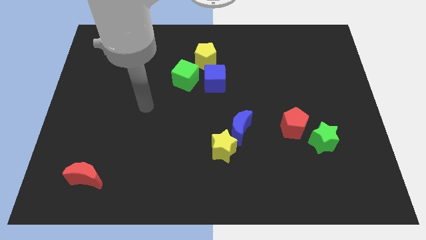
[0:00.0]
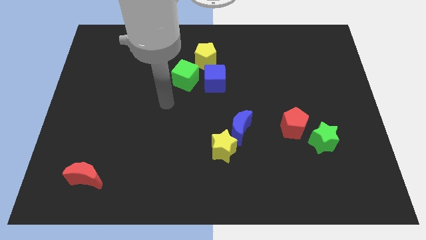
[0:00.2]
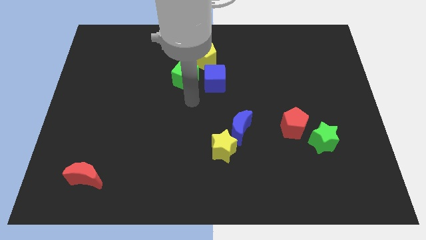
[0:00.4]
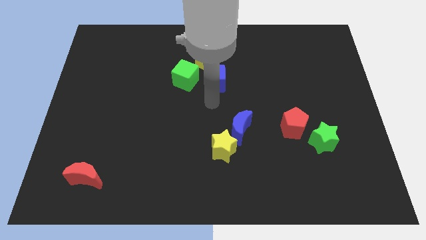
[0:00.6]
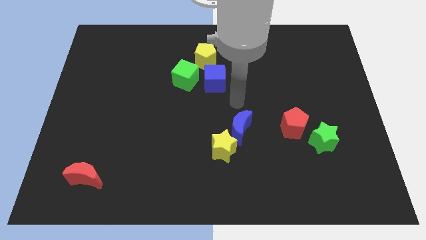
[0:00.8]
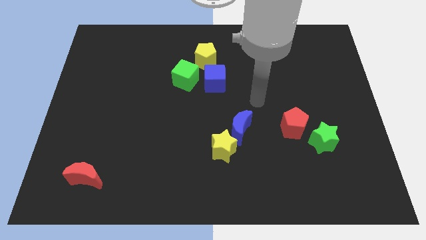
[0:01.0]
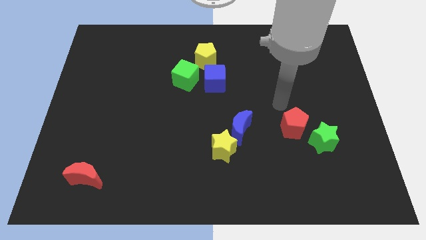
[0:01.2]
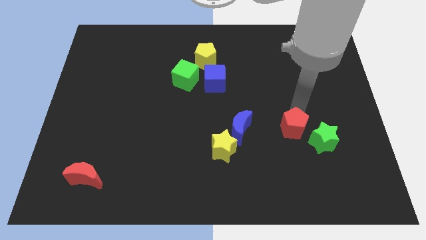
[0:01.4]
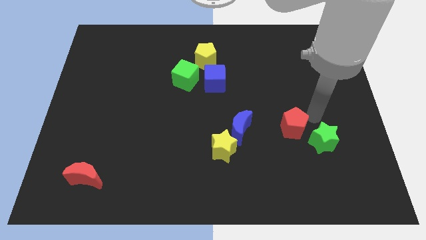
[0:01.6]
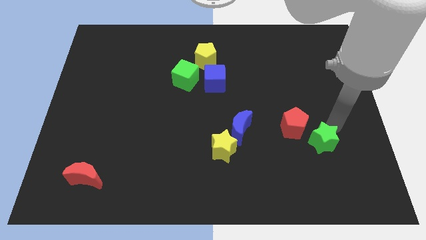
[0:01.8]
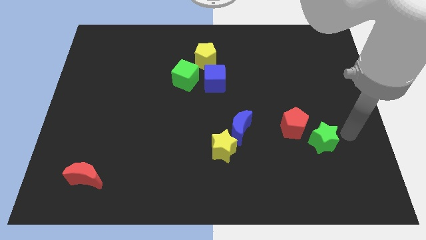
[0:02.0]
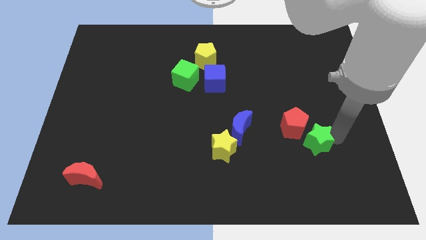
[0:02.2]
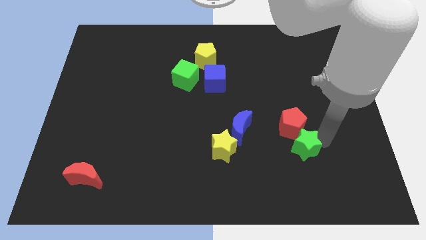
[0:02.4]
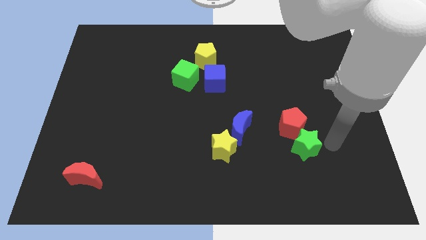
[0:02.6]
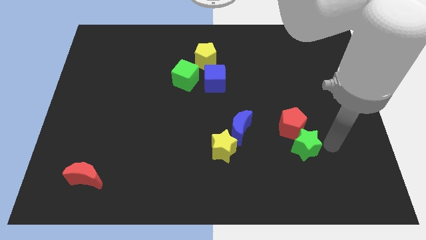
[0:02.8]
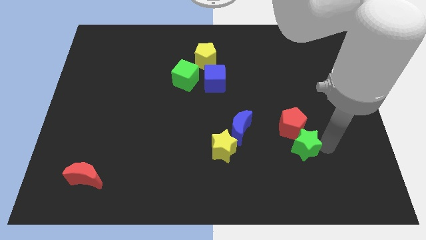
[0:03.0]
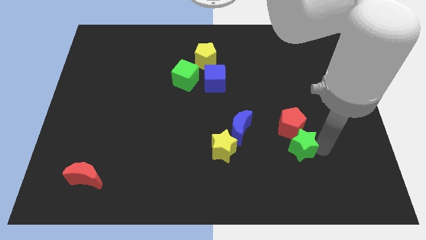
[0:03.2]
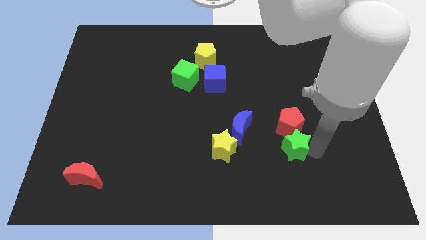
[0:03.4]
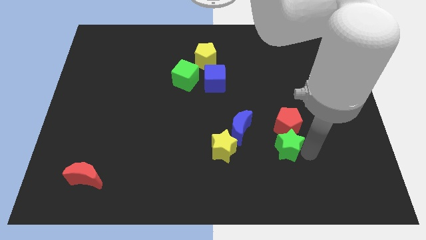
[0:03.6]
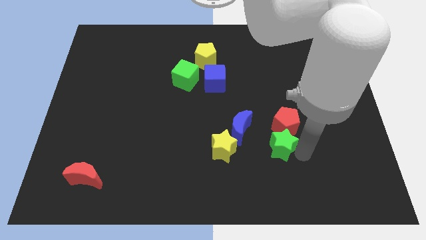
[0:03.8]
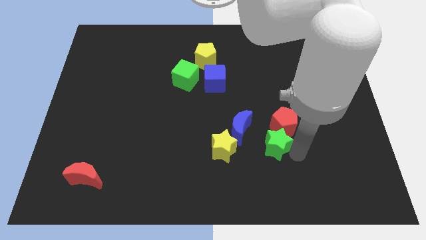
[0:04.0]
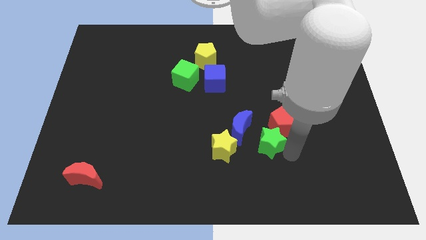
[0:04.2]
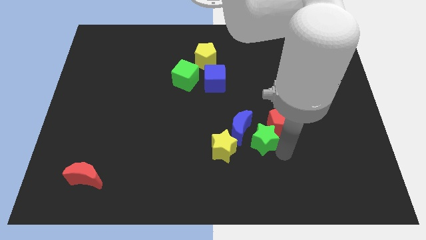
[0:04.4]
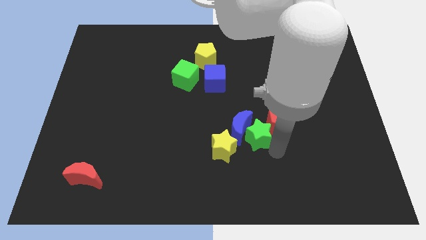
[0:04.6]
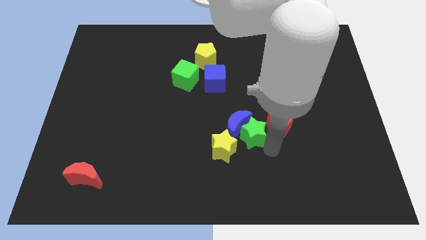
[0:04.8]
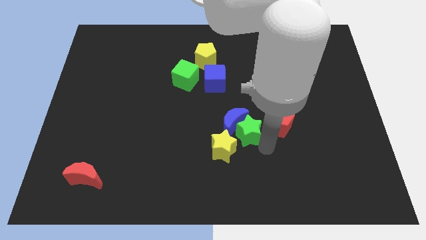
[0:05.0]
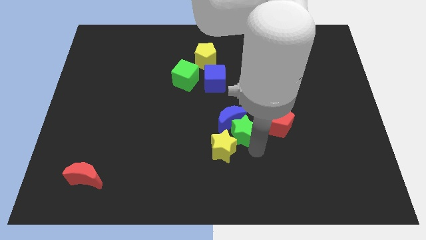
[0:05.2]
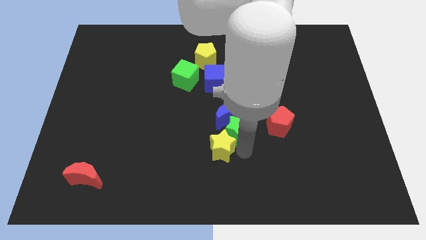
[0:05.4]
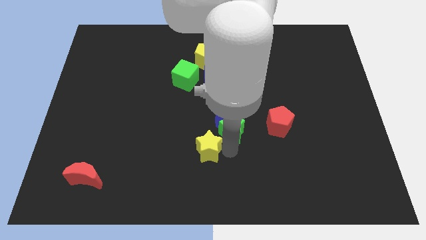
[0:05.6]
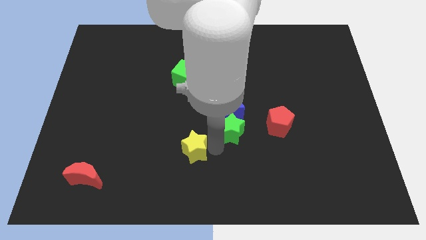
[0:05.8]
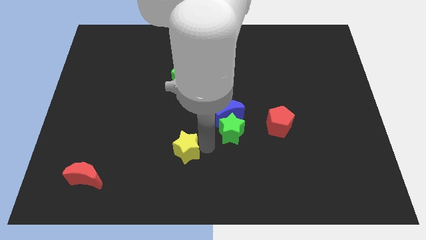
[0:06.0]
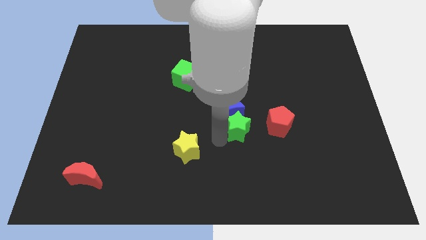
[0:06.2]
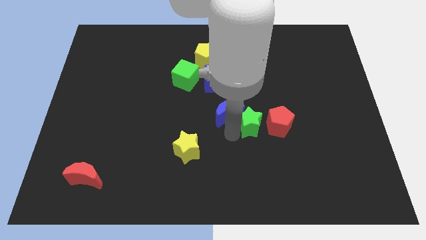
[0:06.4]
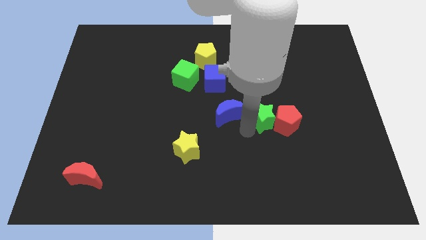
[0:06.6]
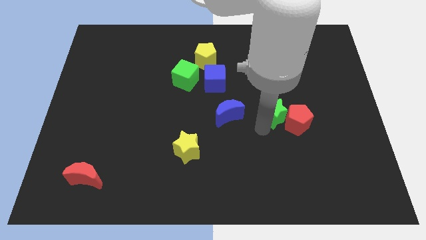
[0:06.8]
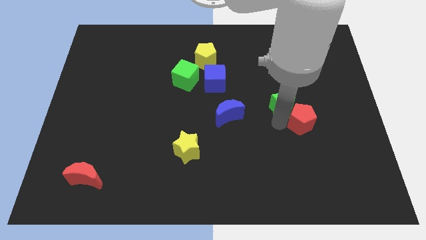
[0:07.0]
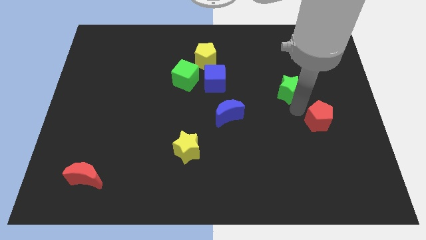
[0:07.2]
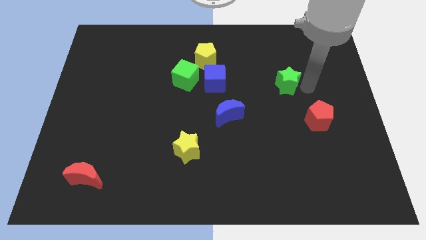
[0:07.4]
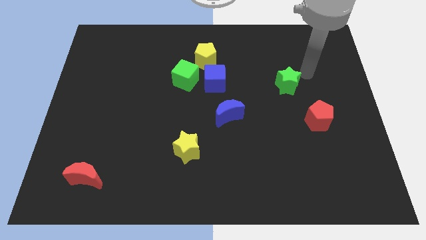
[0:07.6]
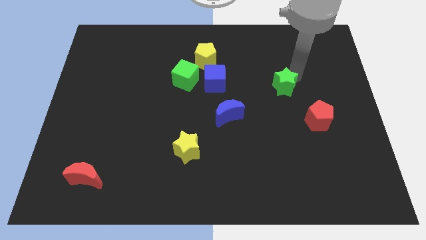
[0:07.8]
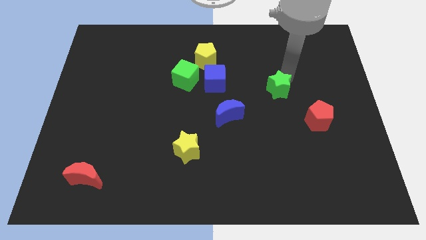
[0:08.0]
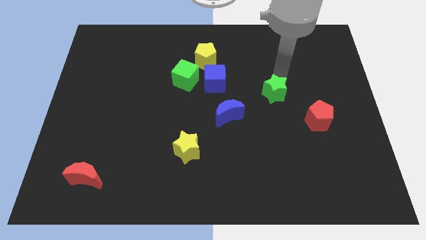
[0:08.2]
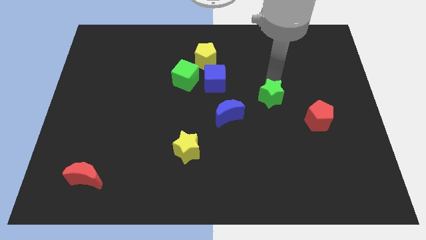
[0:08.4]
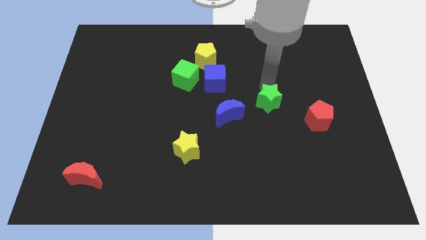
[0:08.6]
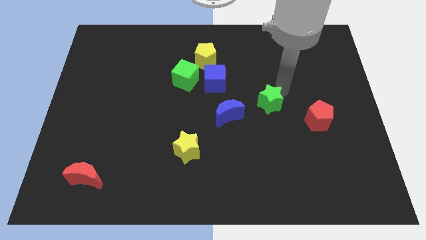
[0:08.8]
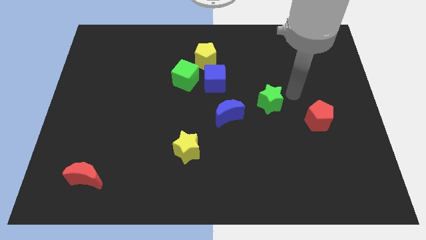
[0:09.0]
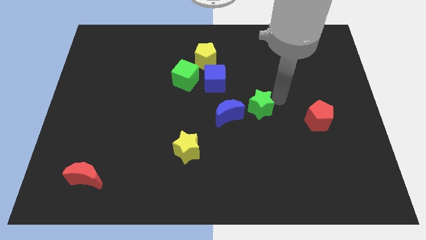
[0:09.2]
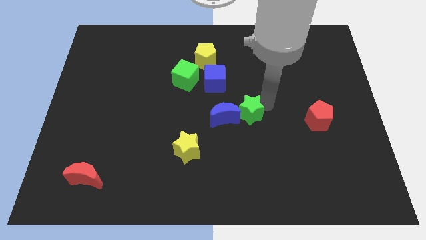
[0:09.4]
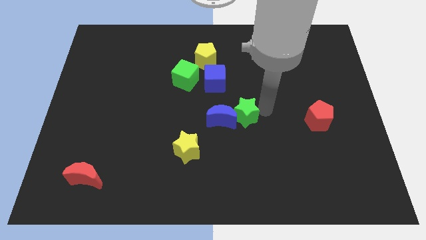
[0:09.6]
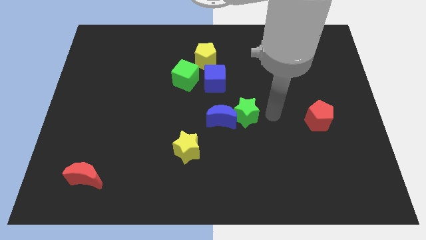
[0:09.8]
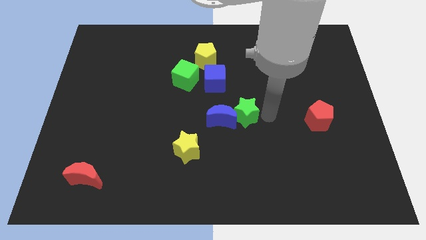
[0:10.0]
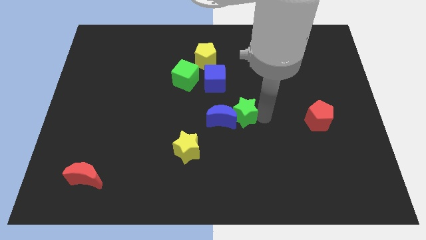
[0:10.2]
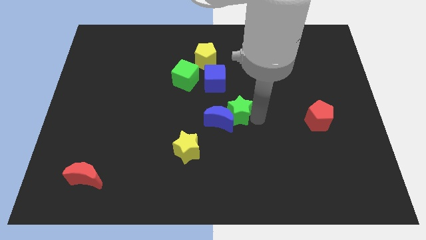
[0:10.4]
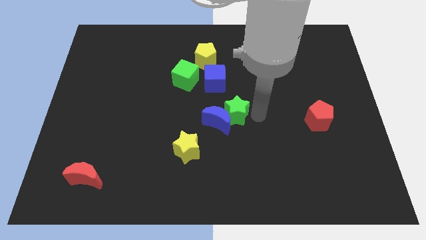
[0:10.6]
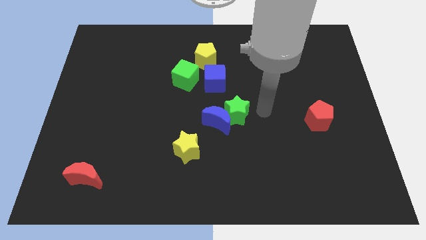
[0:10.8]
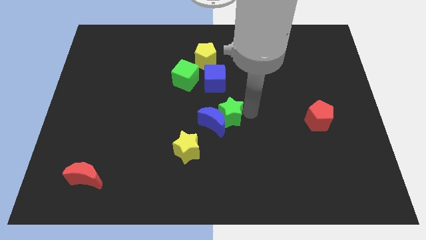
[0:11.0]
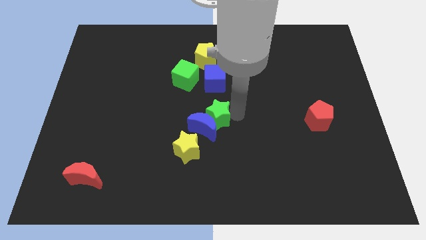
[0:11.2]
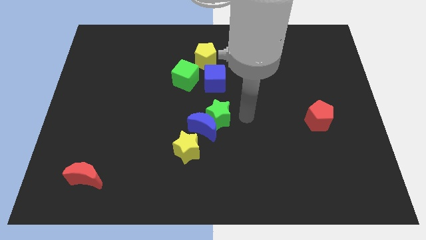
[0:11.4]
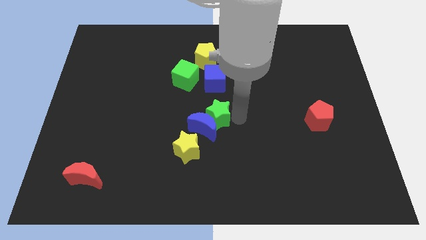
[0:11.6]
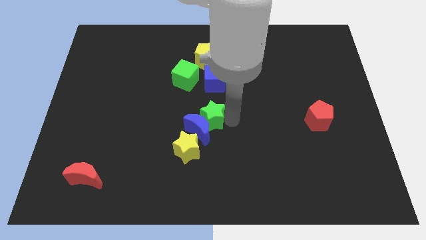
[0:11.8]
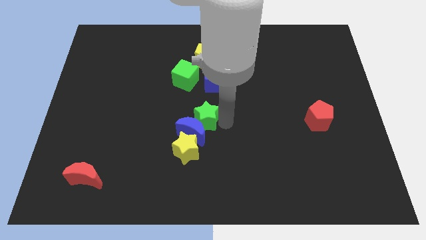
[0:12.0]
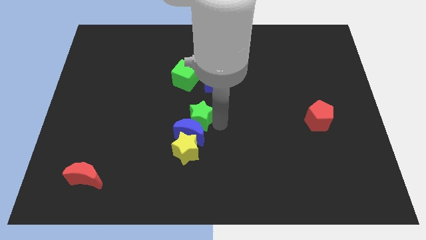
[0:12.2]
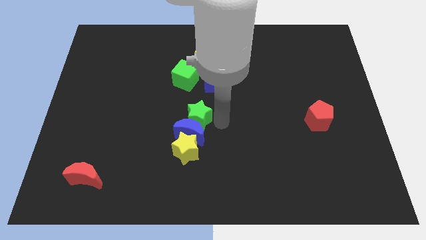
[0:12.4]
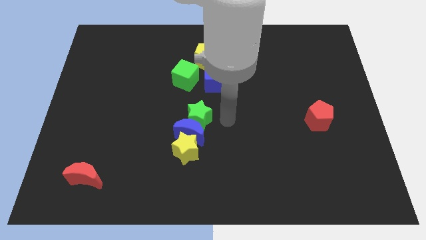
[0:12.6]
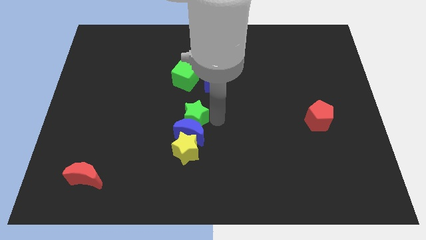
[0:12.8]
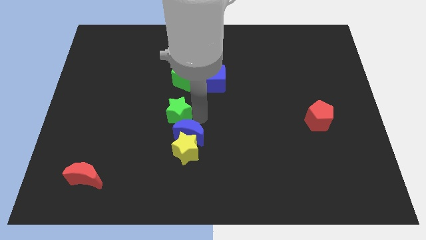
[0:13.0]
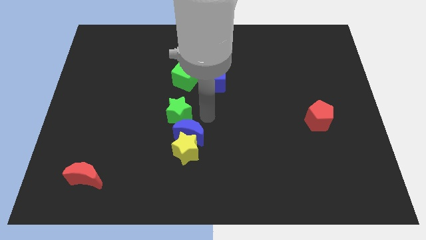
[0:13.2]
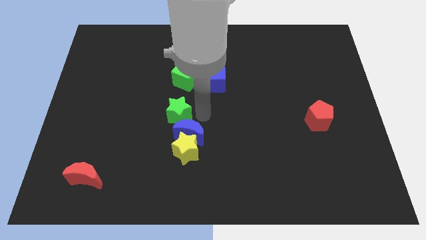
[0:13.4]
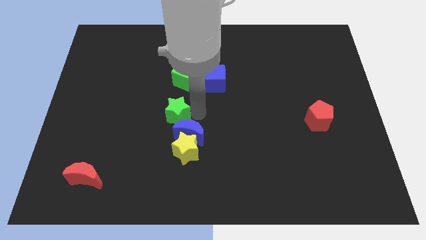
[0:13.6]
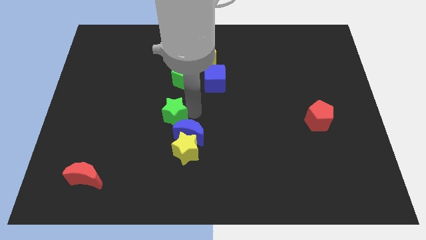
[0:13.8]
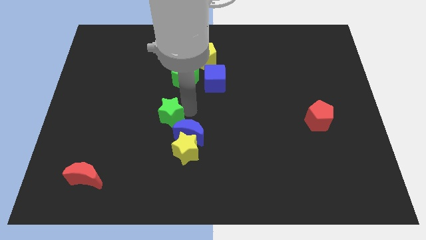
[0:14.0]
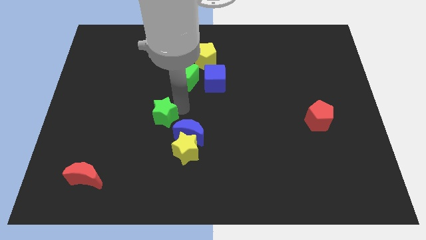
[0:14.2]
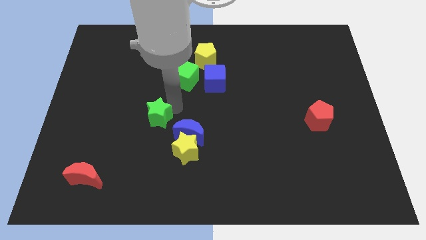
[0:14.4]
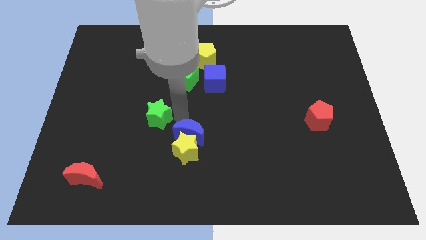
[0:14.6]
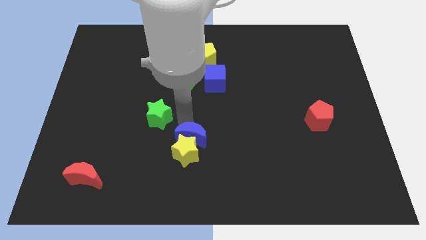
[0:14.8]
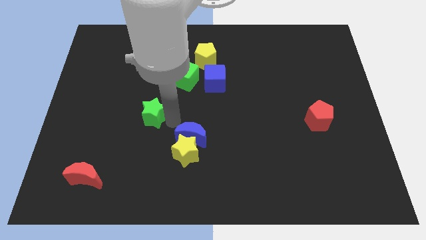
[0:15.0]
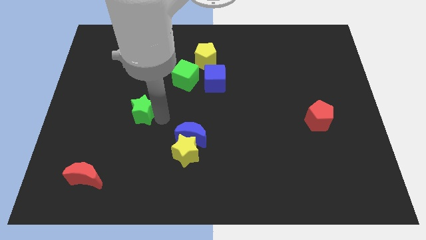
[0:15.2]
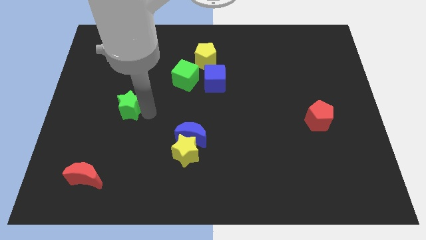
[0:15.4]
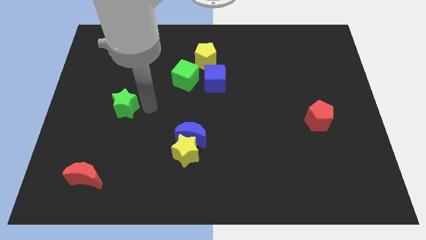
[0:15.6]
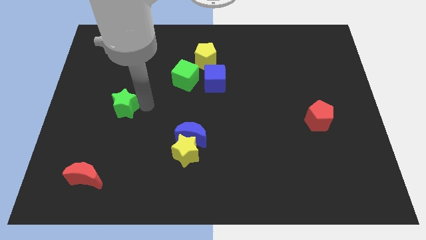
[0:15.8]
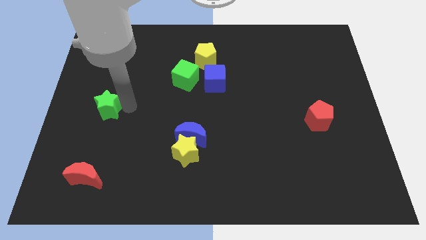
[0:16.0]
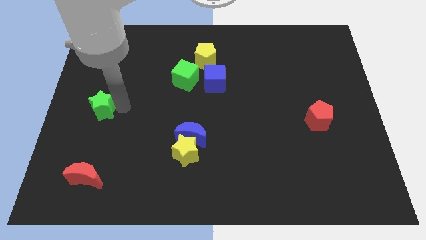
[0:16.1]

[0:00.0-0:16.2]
push the green star to the left side
